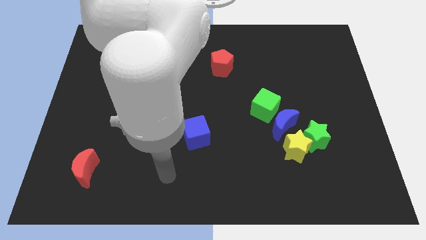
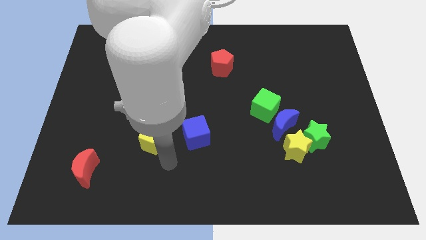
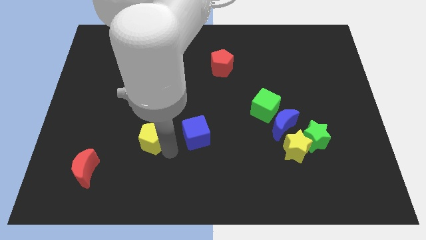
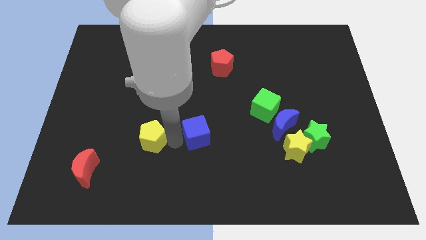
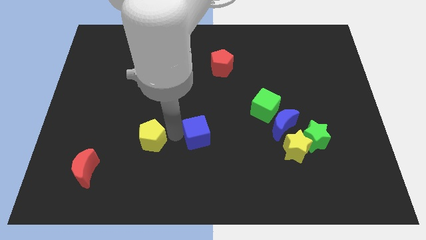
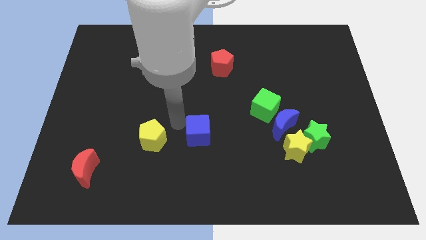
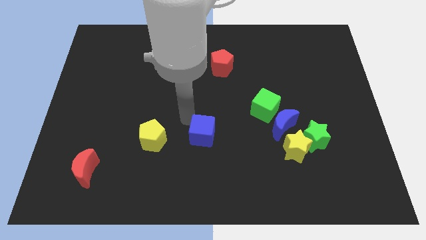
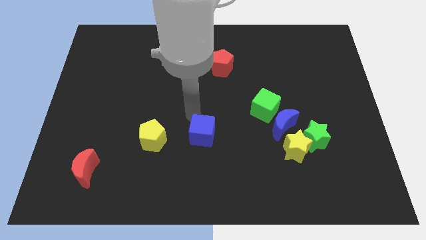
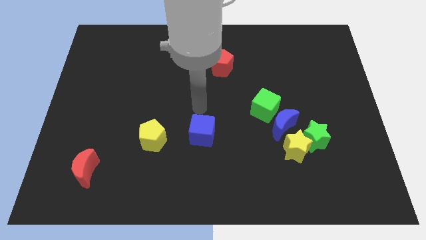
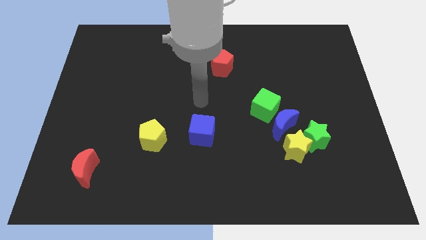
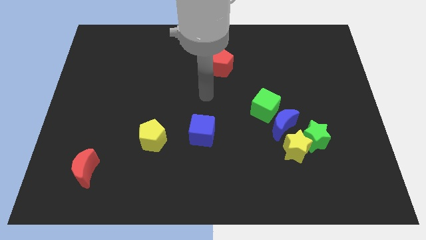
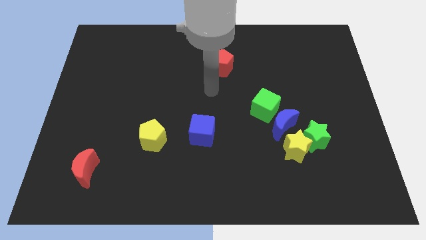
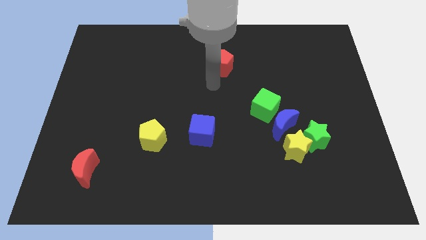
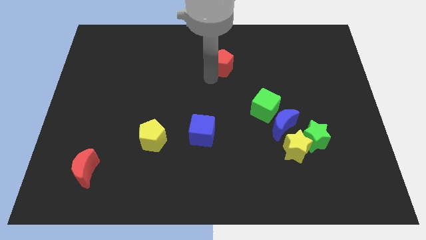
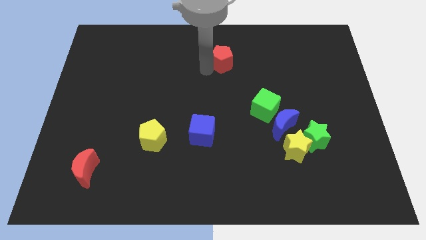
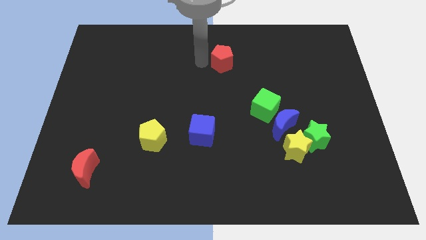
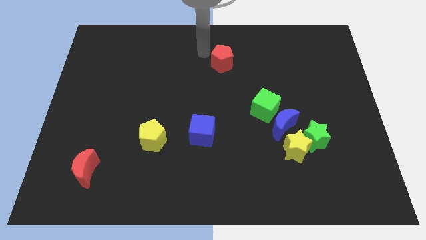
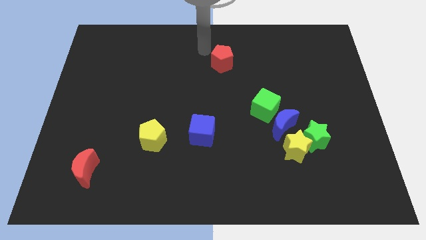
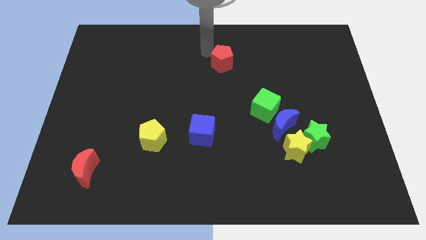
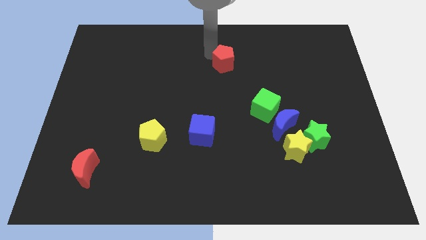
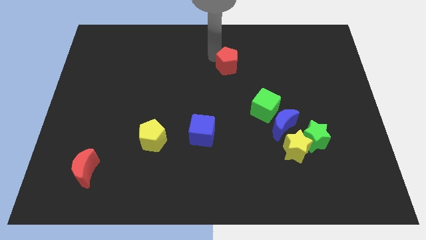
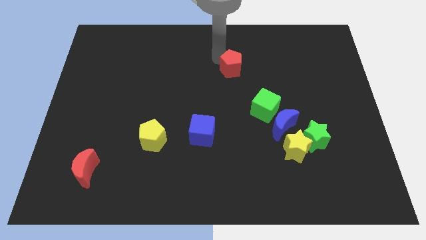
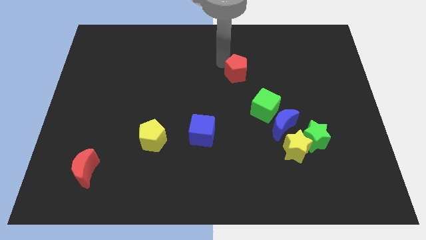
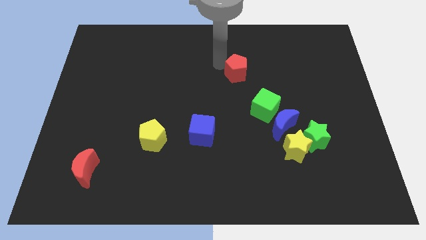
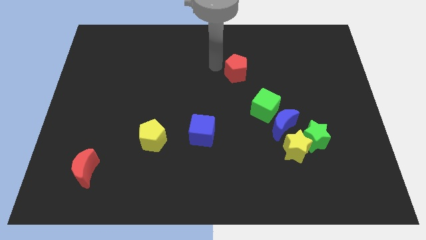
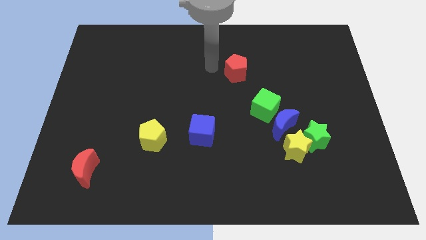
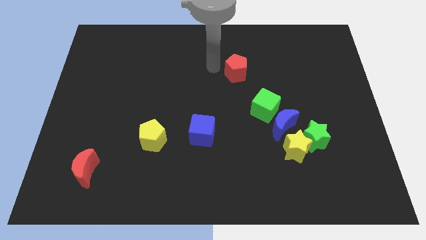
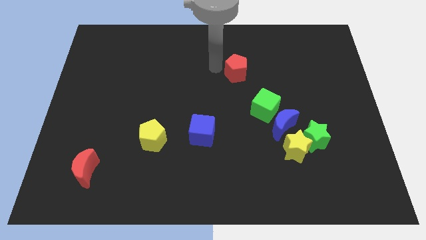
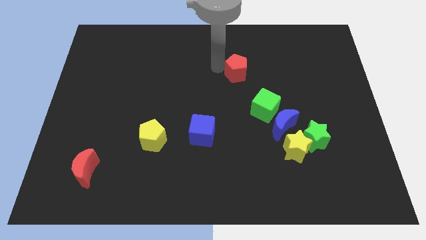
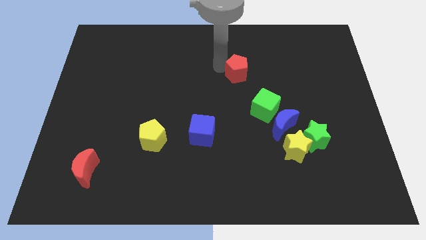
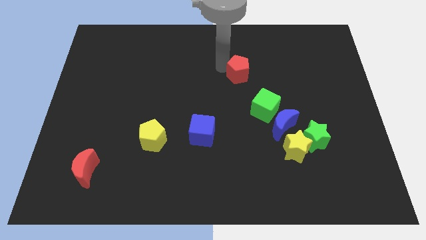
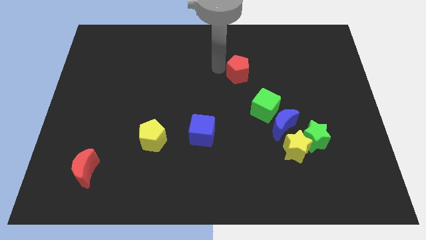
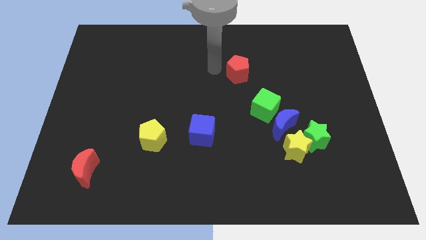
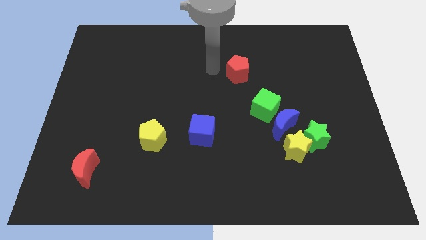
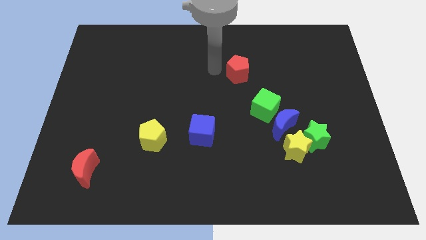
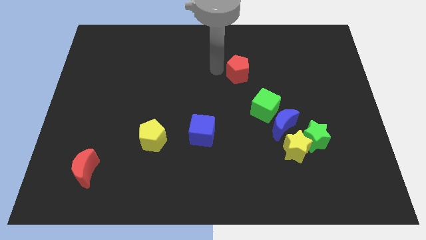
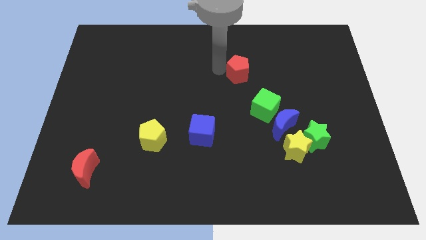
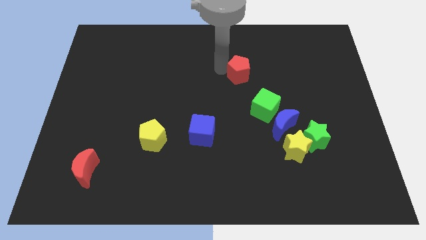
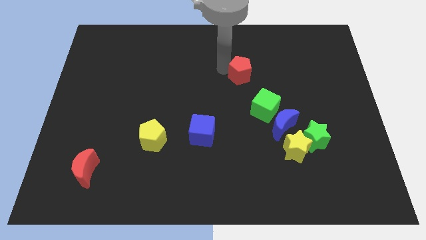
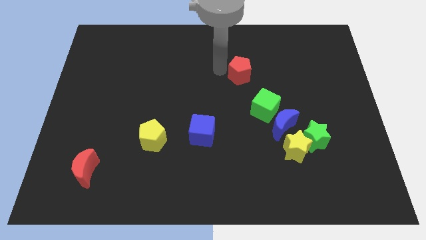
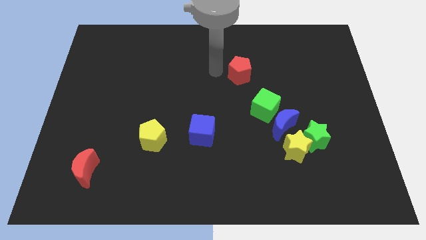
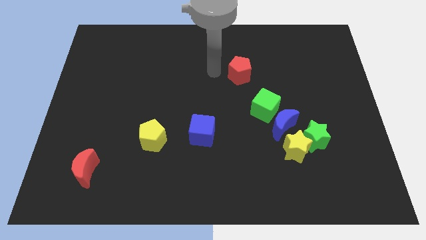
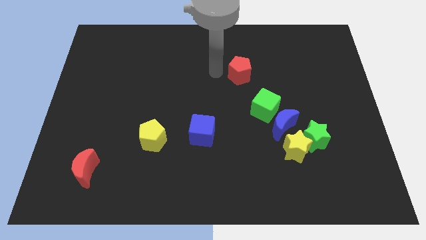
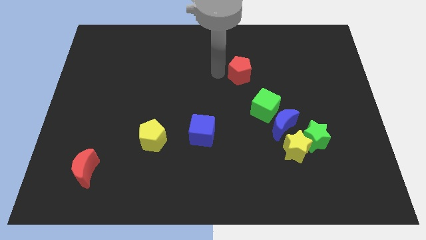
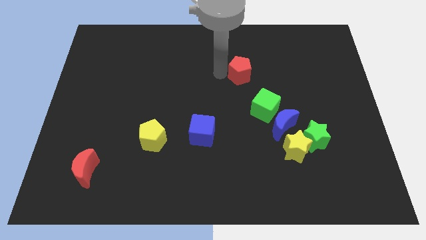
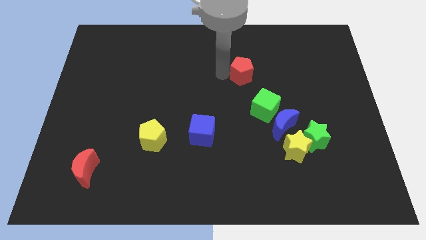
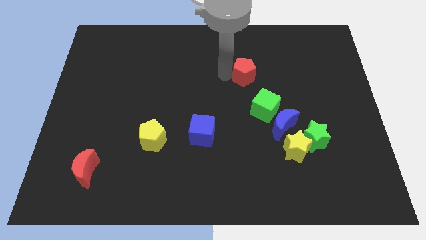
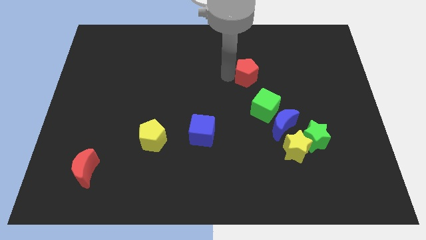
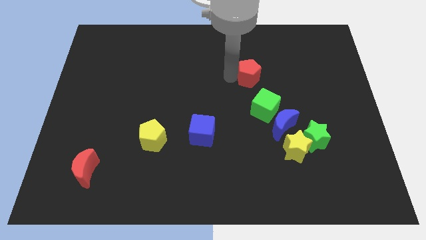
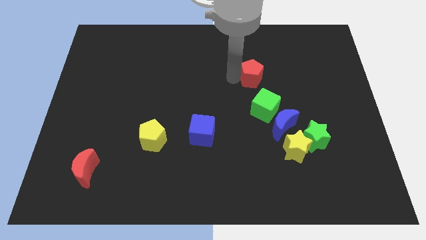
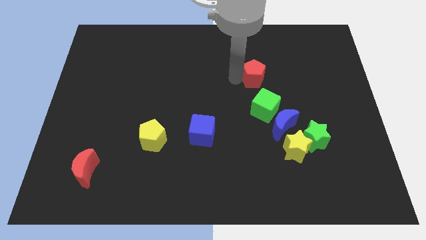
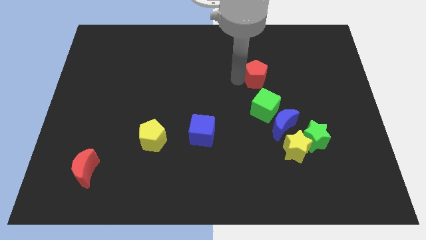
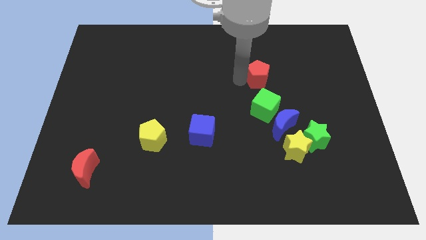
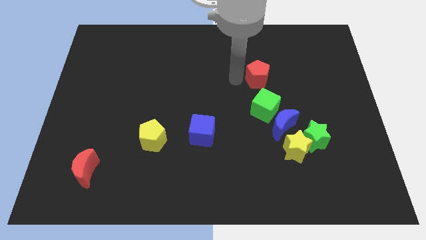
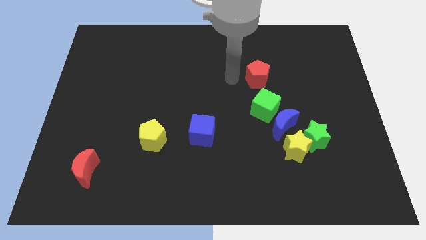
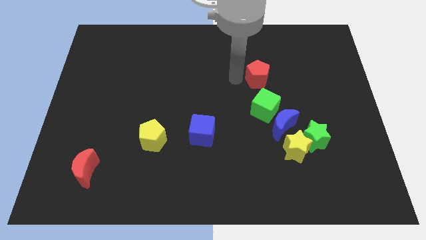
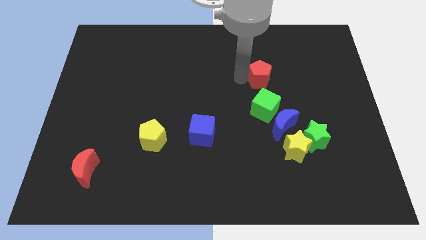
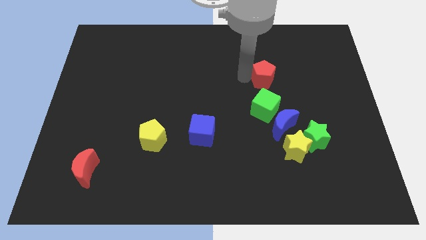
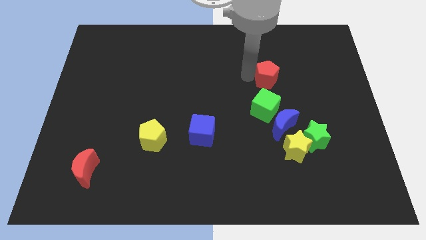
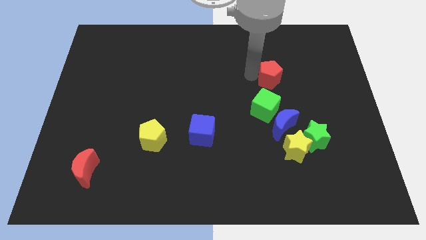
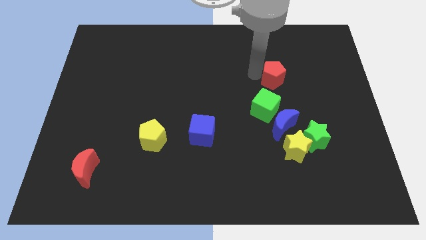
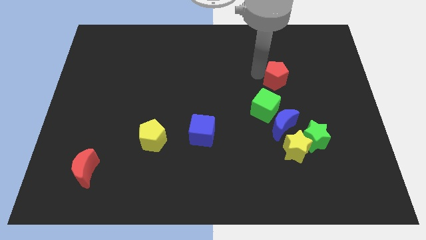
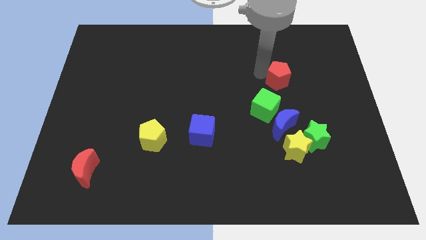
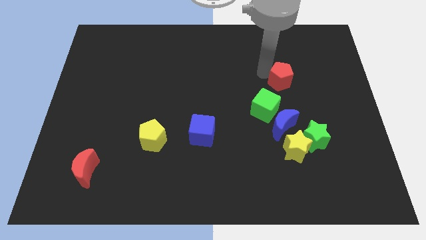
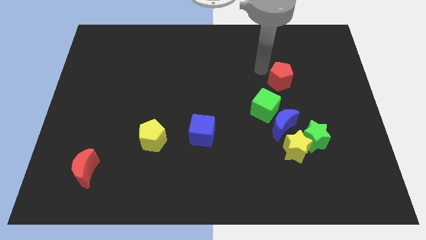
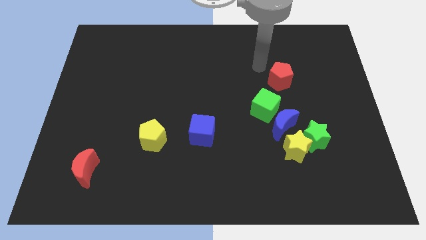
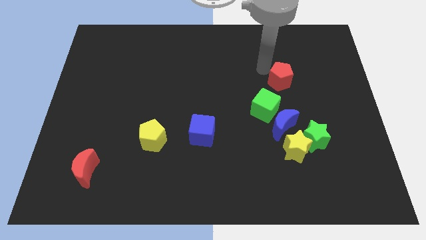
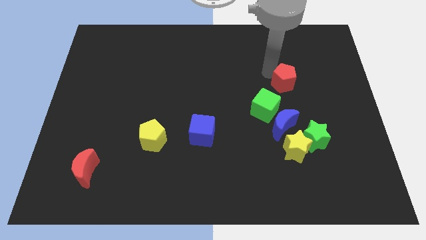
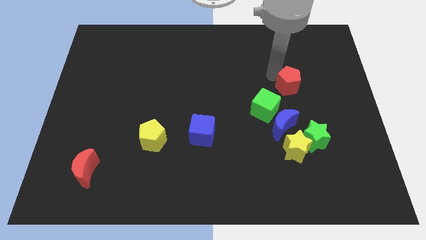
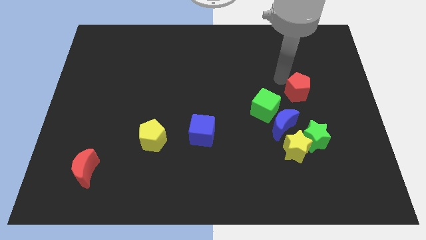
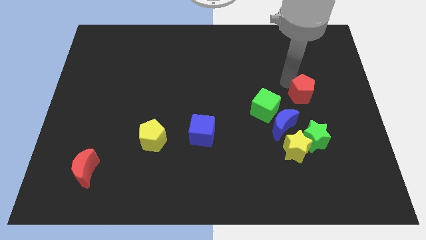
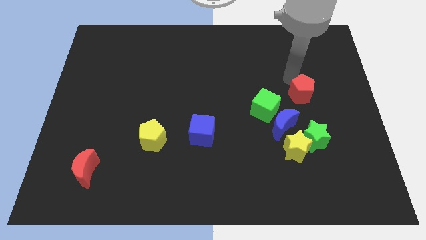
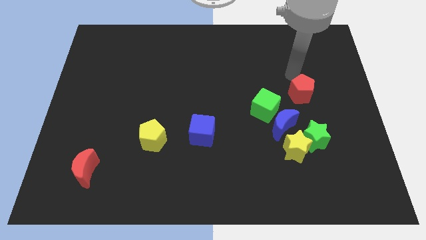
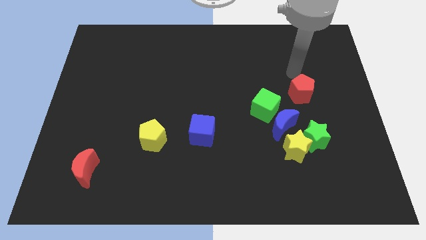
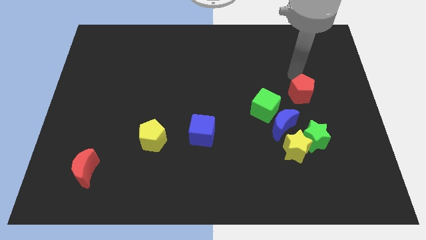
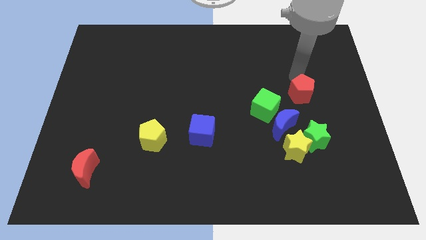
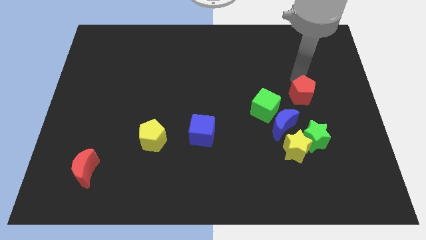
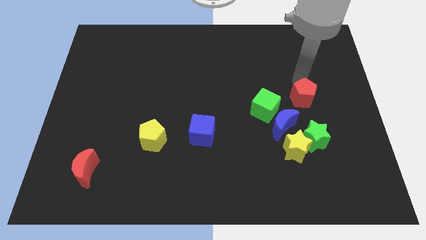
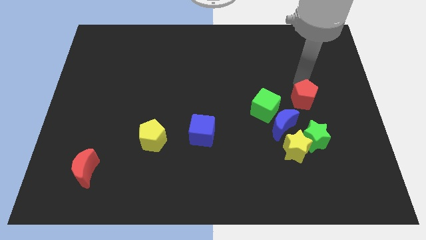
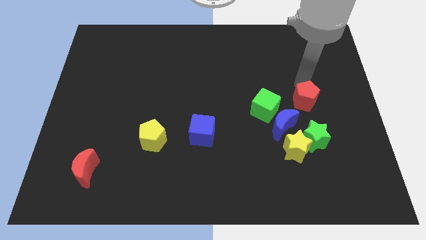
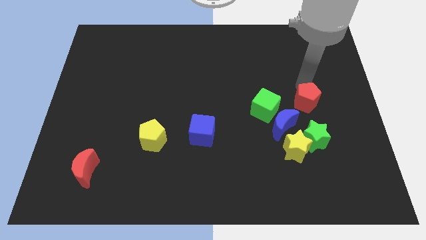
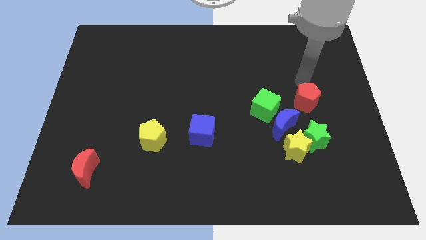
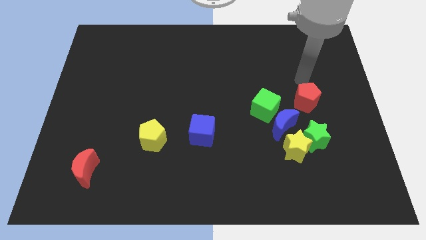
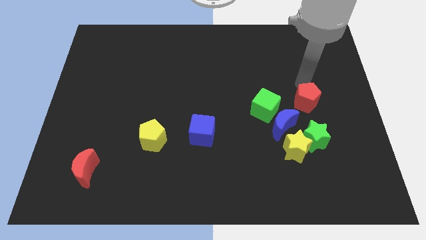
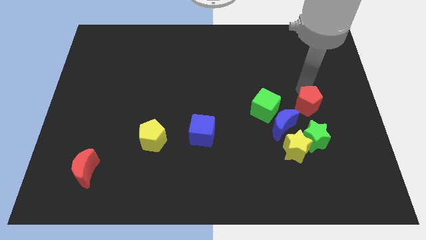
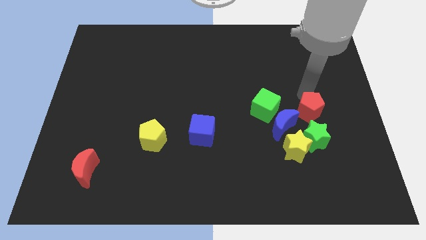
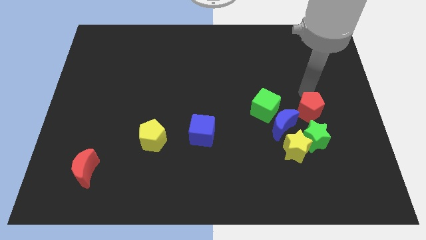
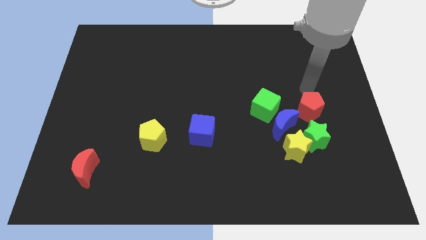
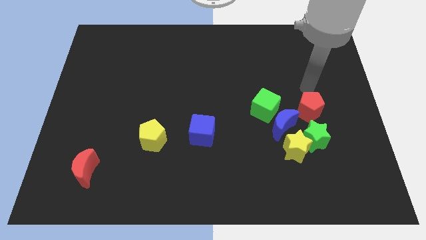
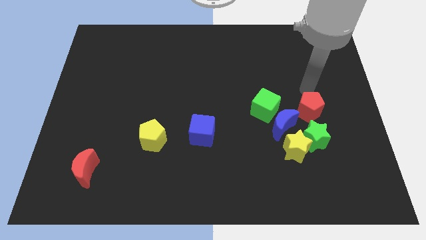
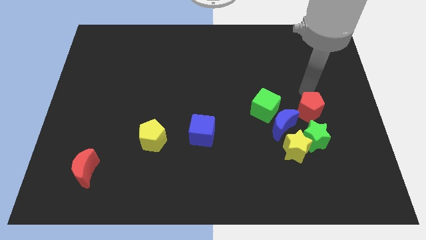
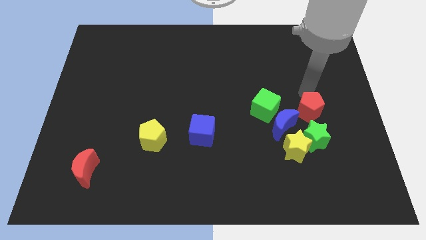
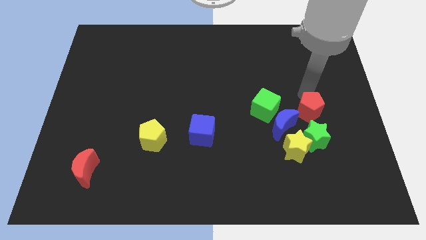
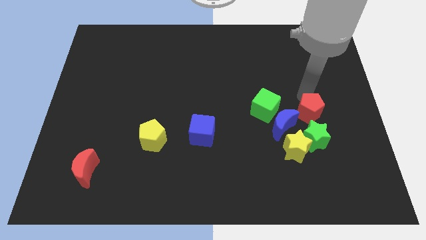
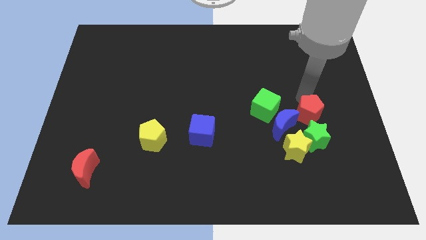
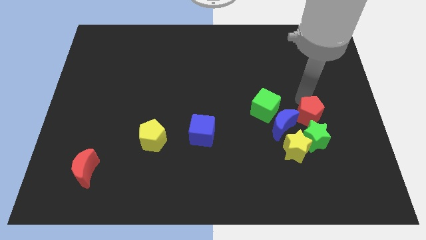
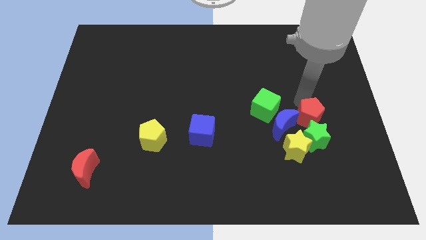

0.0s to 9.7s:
put the red pentagon to the green star
